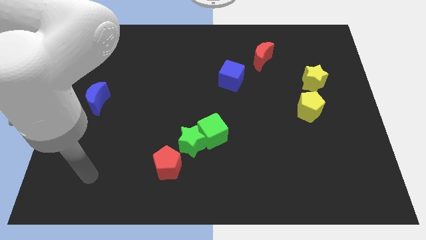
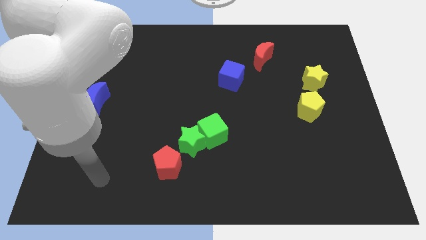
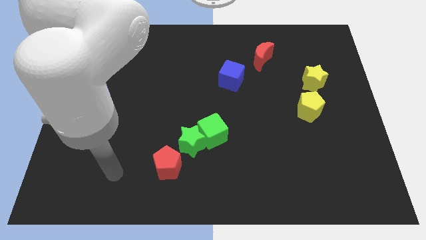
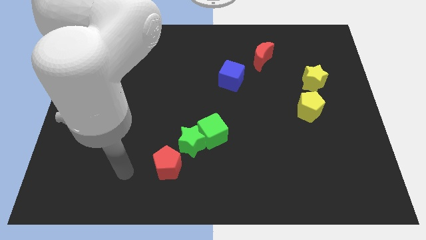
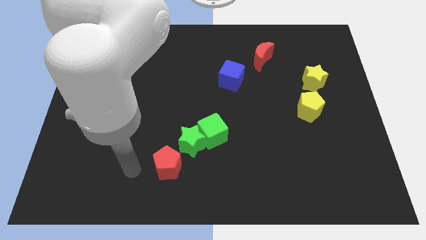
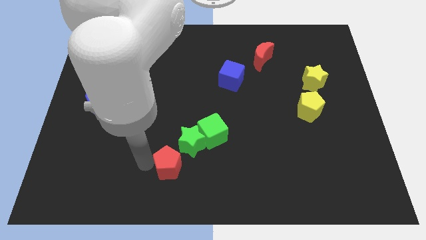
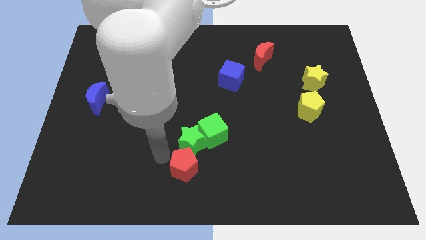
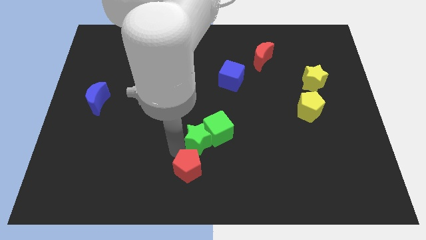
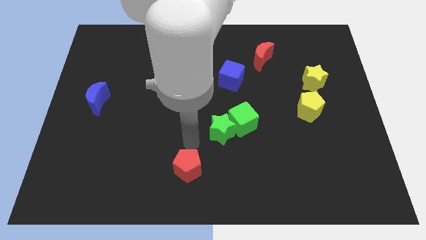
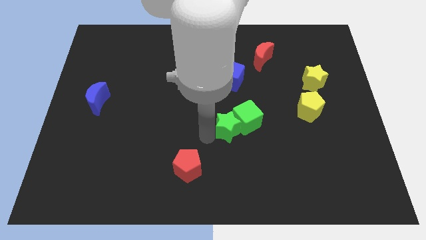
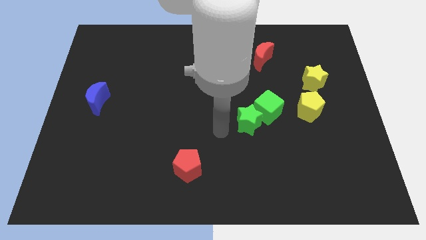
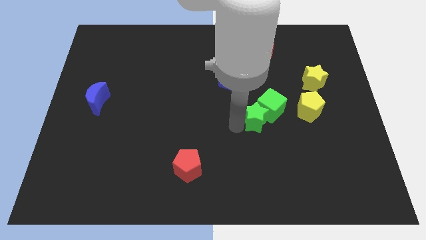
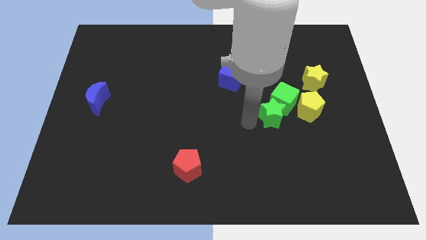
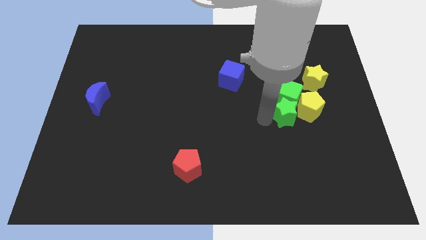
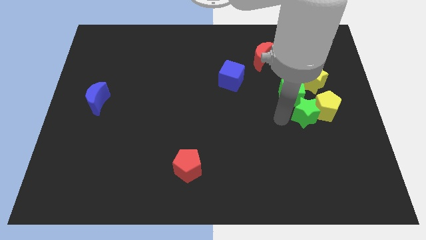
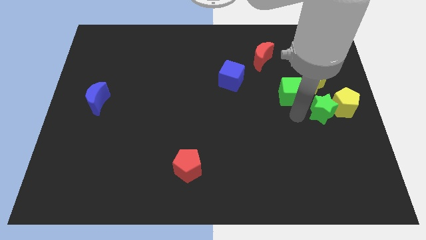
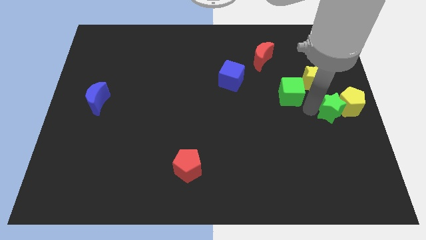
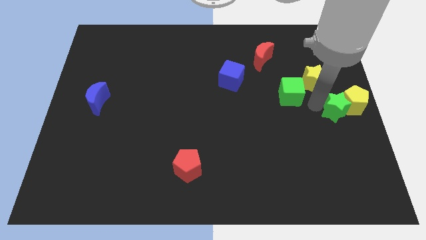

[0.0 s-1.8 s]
pull the green cube apart from the green star

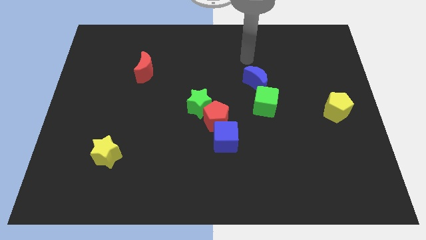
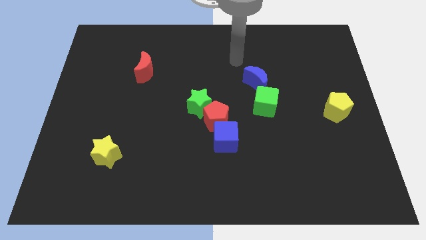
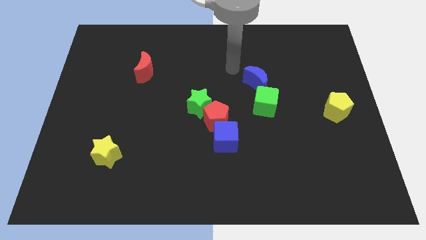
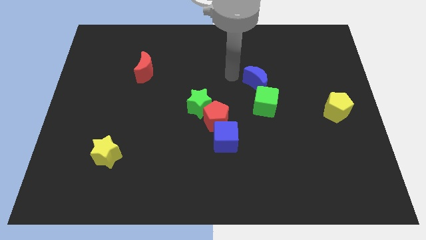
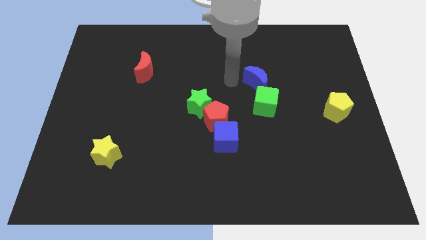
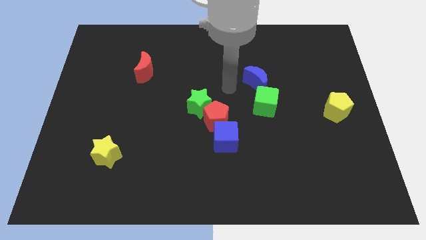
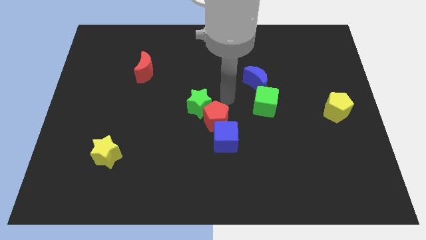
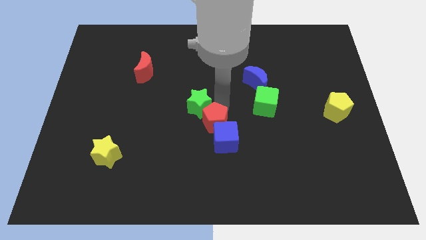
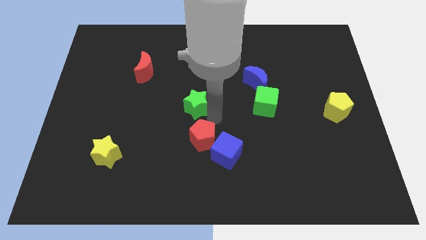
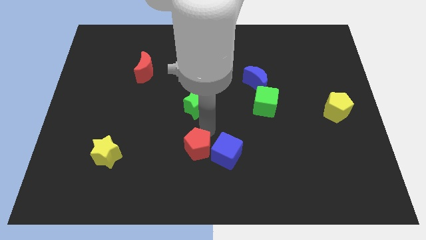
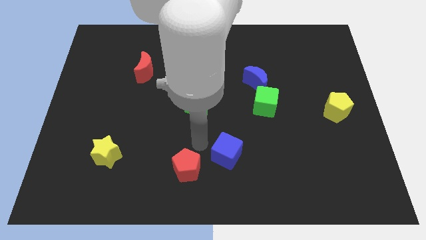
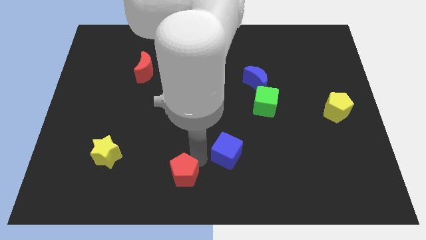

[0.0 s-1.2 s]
separate the blue cube from the red pentagon

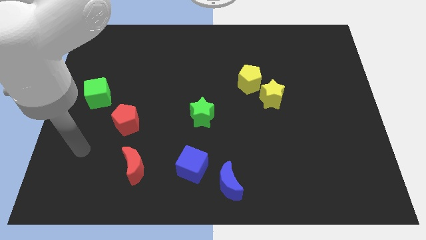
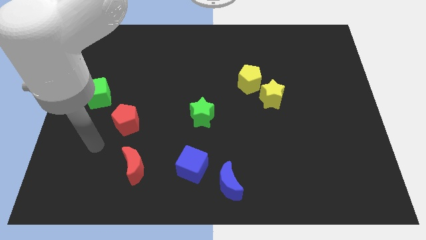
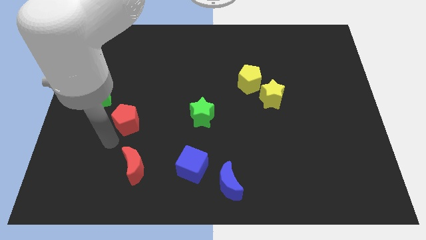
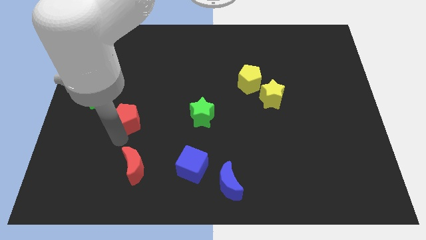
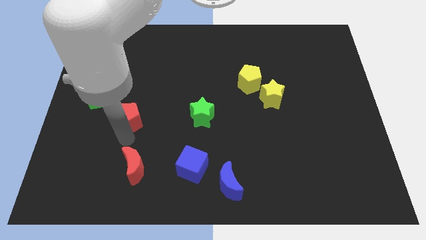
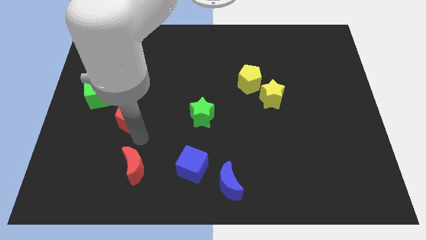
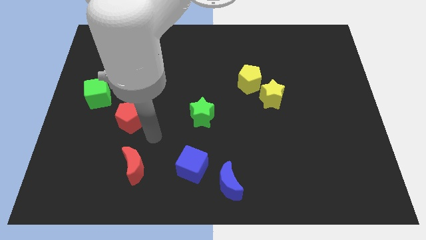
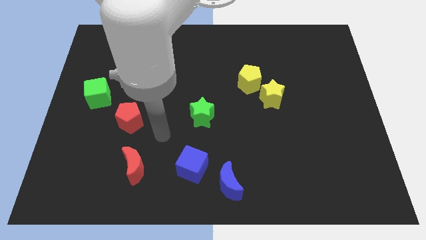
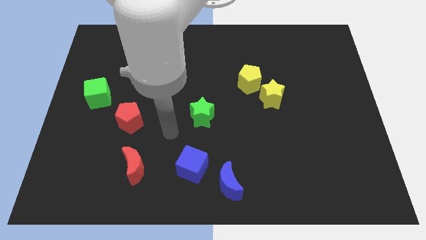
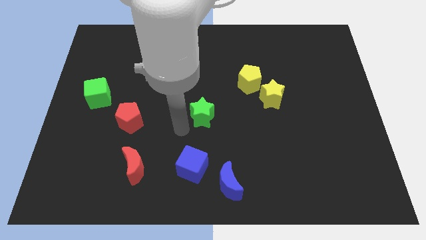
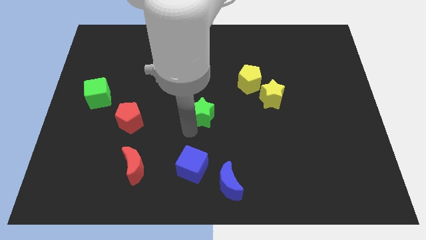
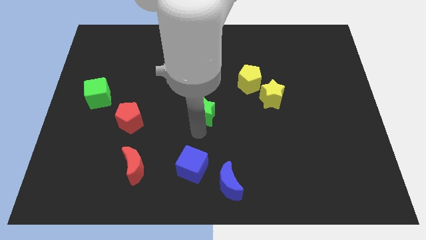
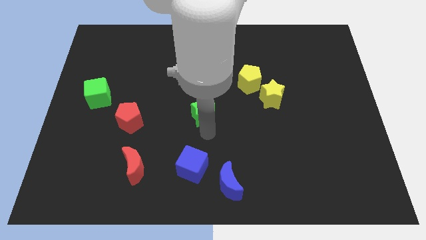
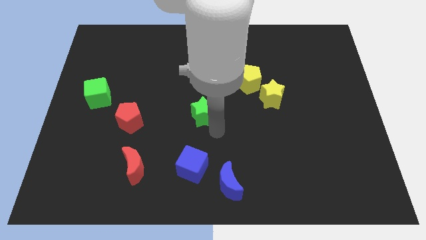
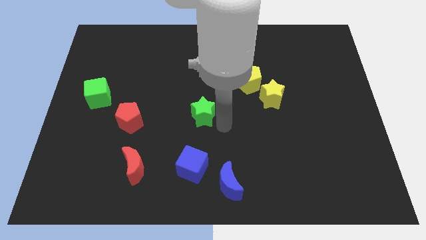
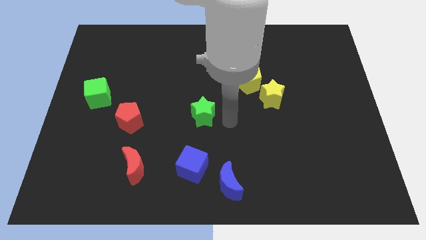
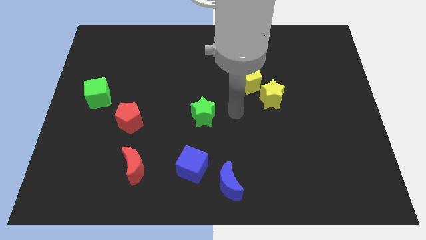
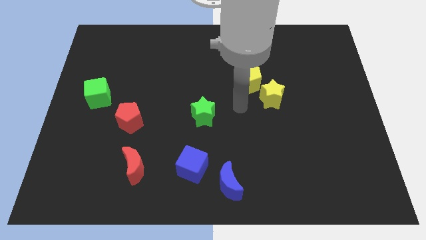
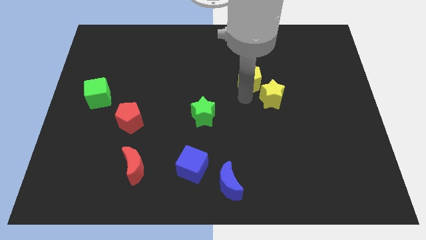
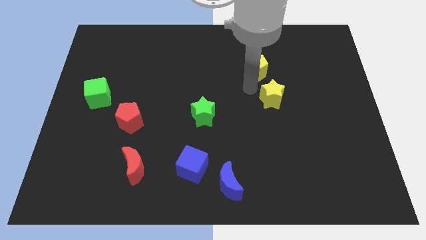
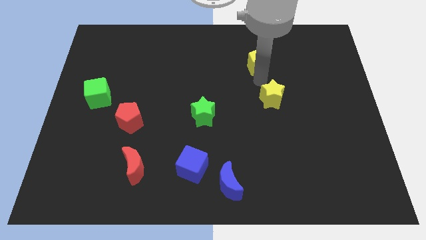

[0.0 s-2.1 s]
pull the yellow star apart from the yellow pentagon

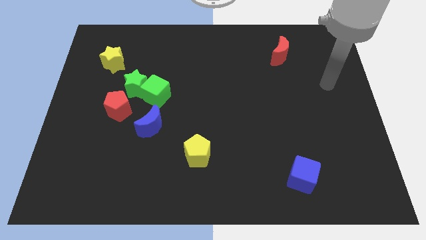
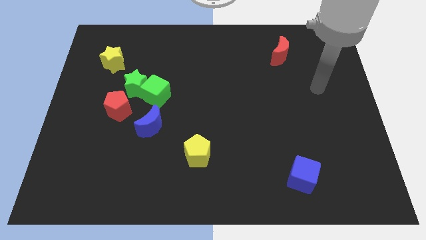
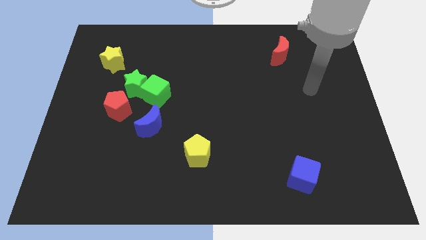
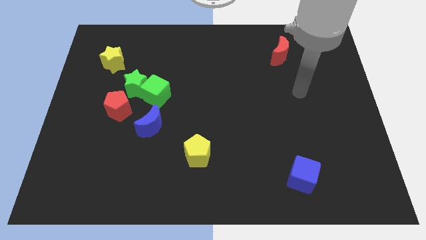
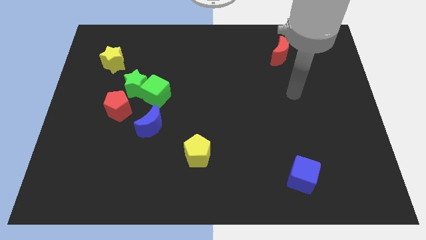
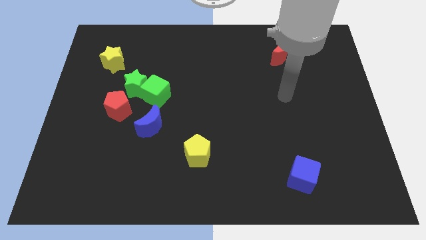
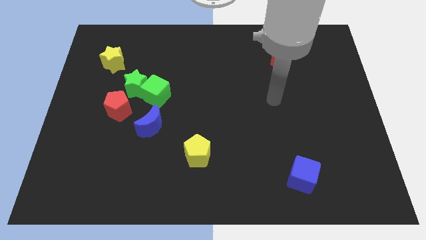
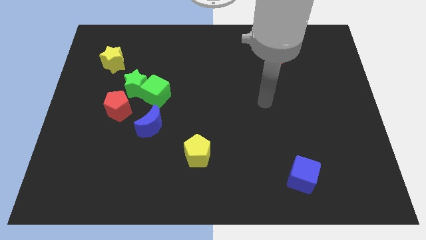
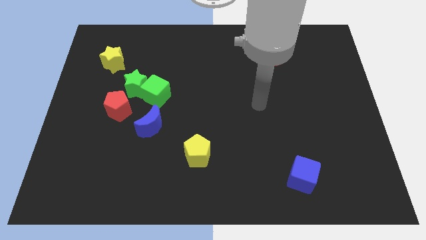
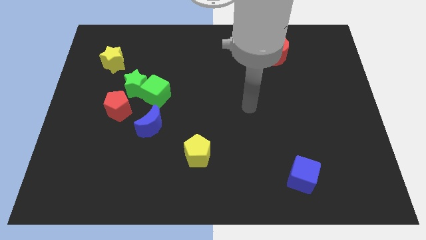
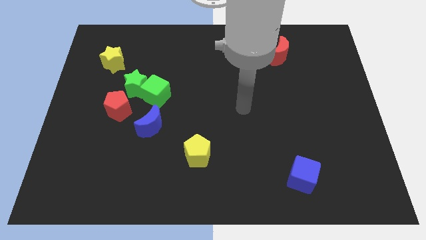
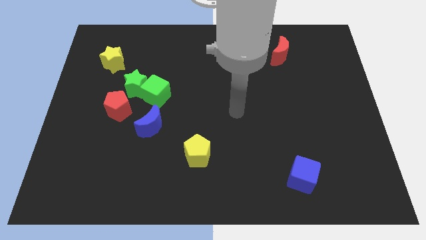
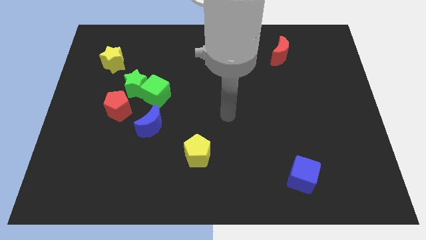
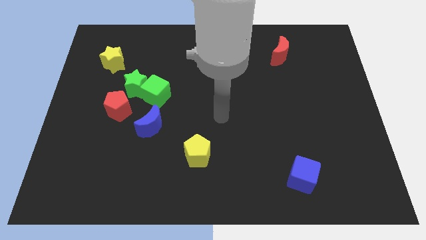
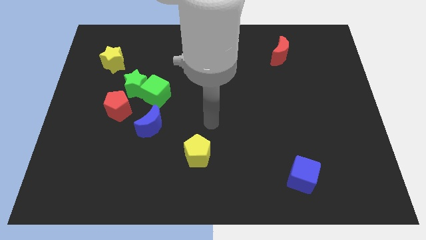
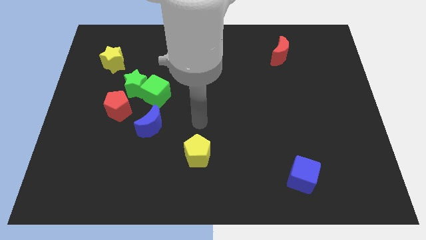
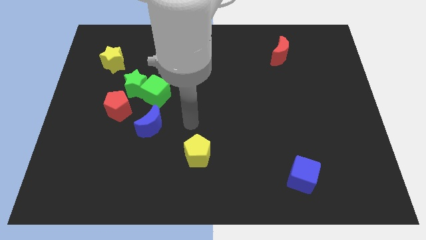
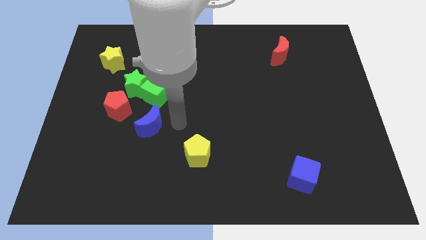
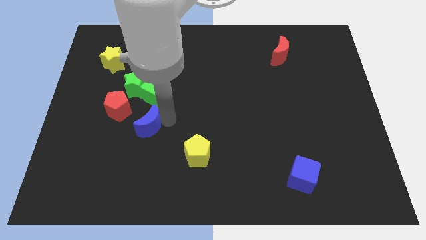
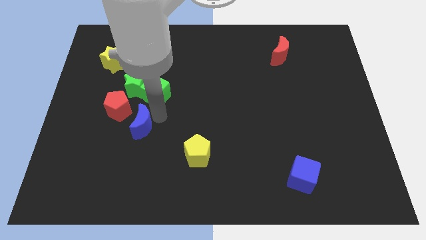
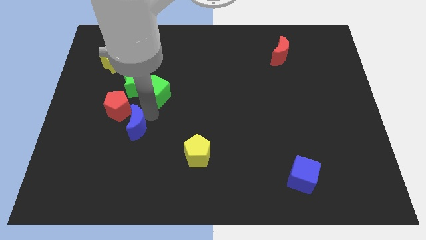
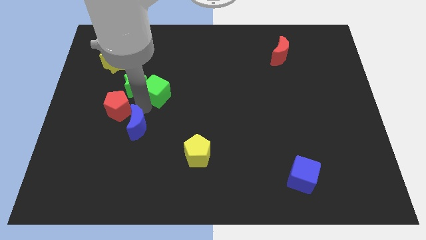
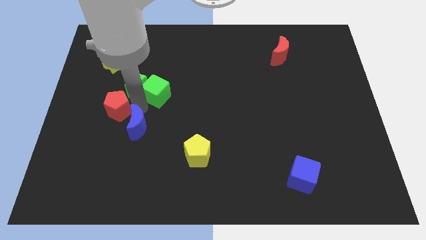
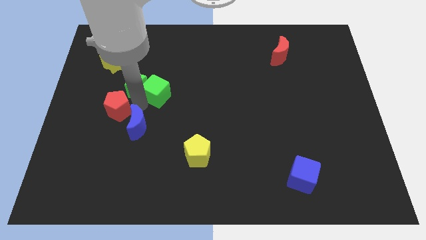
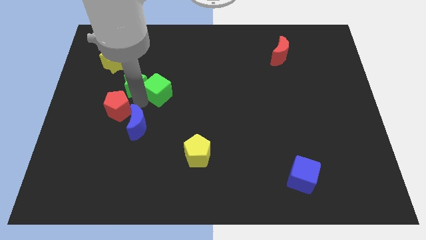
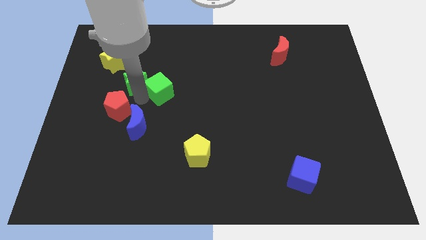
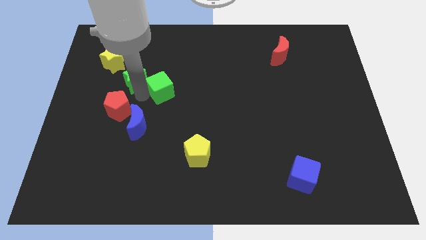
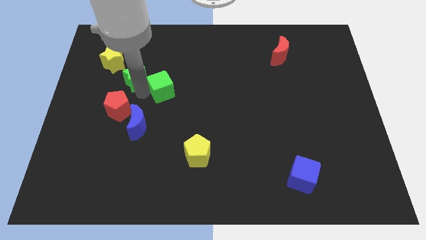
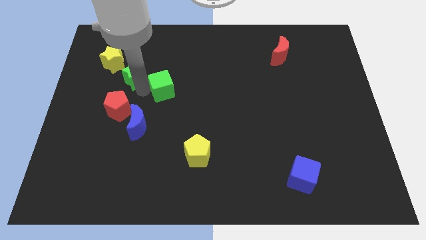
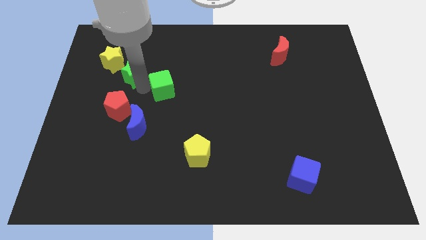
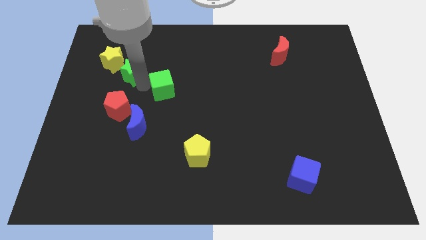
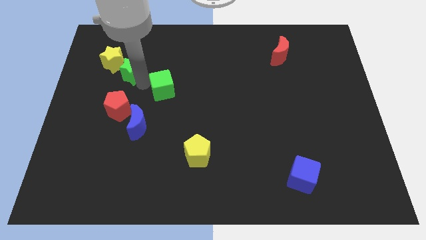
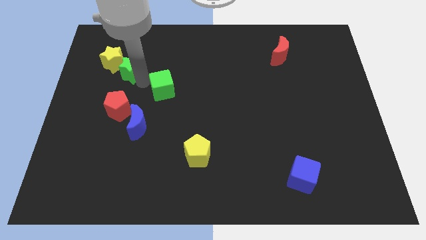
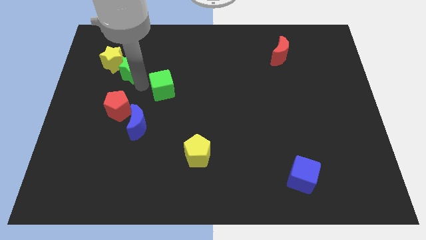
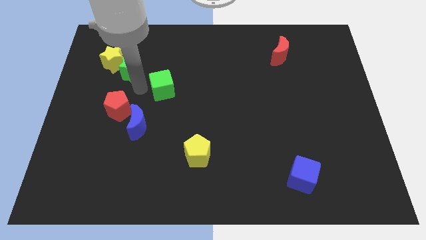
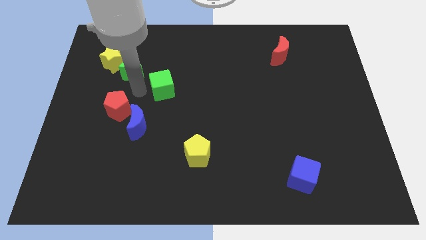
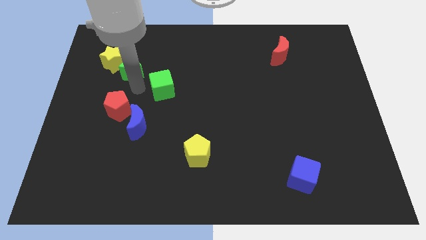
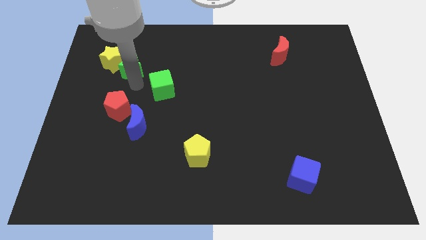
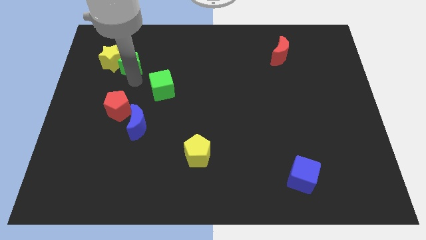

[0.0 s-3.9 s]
pull the green star apart from the green cube and red pentagon

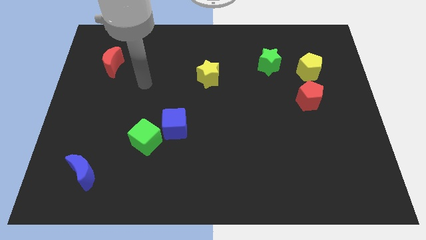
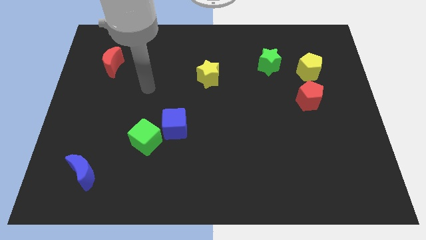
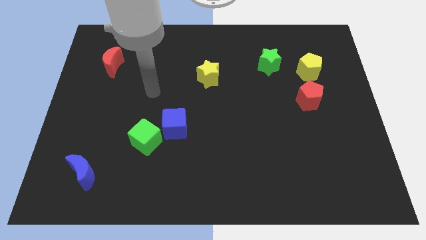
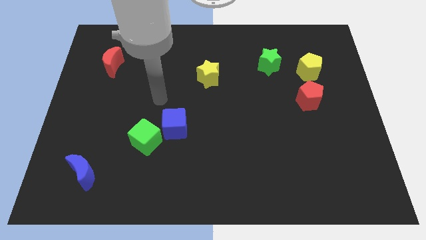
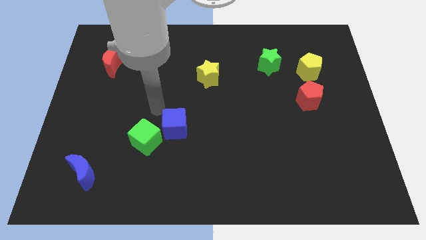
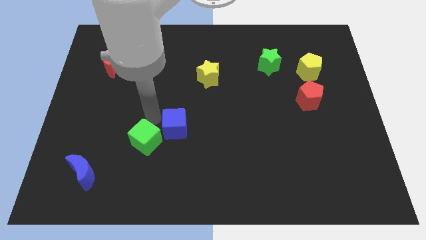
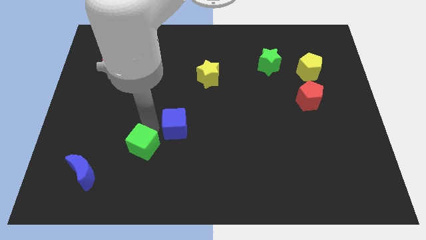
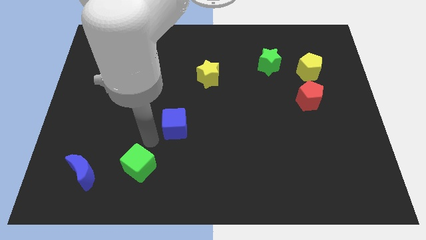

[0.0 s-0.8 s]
pull the blue cube apart from the green cube
